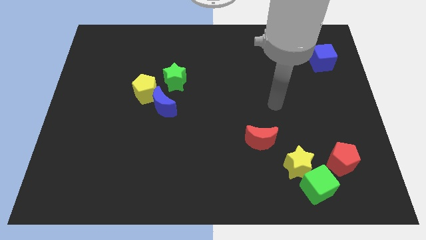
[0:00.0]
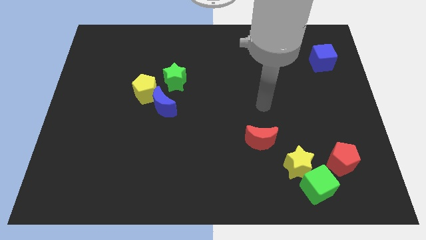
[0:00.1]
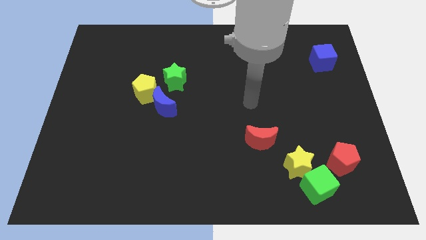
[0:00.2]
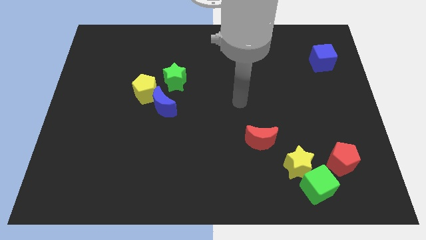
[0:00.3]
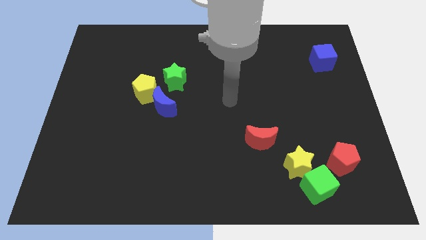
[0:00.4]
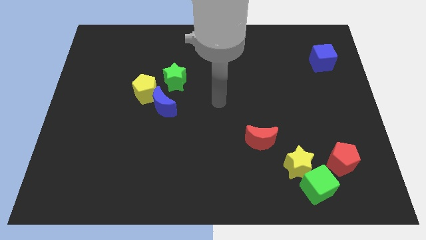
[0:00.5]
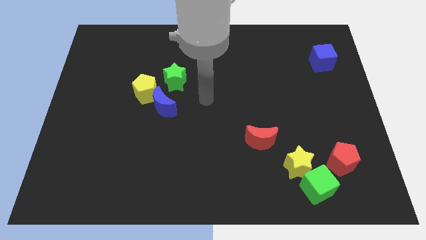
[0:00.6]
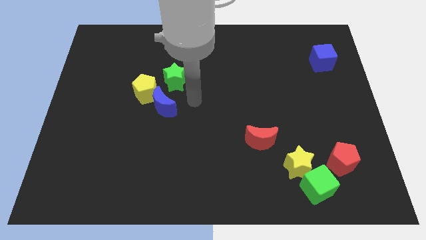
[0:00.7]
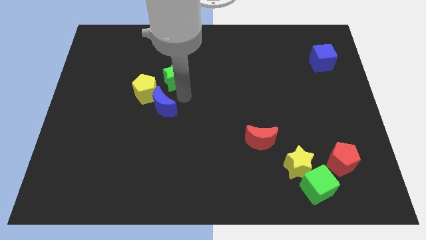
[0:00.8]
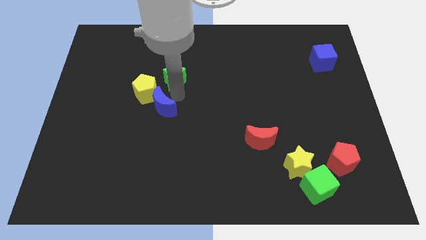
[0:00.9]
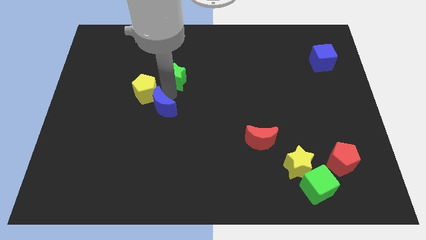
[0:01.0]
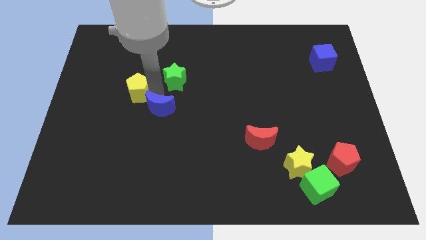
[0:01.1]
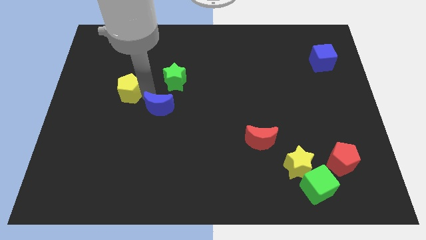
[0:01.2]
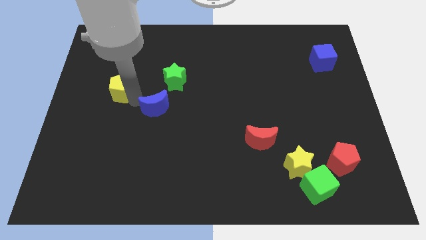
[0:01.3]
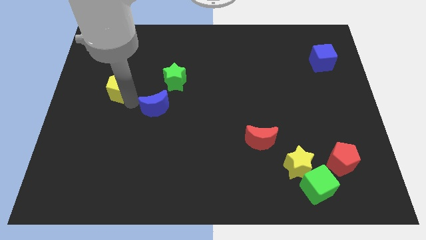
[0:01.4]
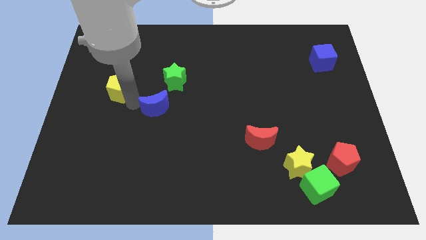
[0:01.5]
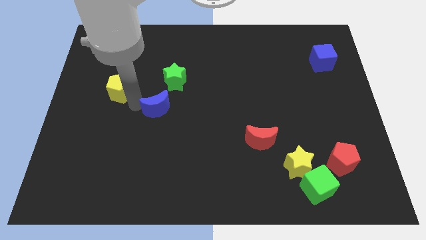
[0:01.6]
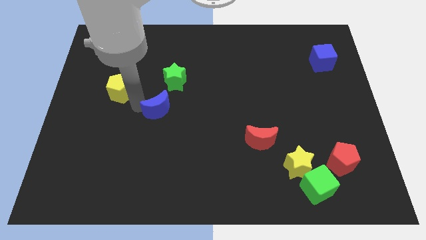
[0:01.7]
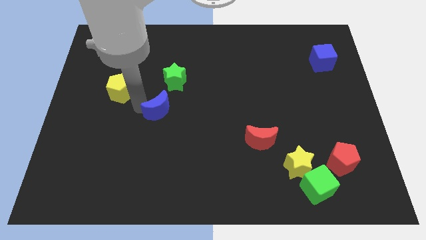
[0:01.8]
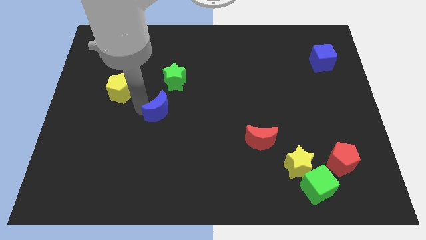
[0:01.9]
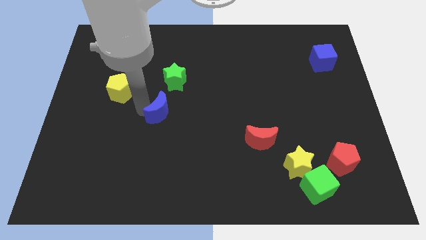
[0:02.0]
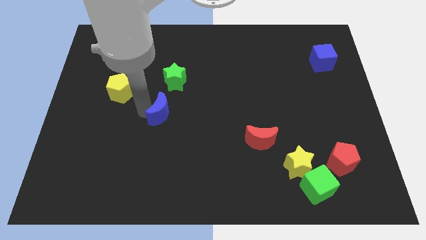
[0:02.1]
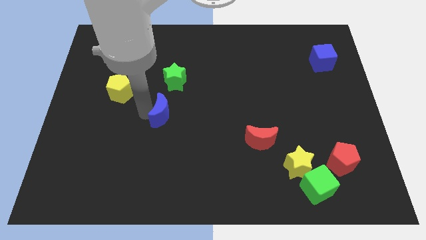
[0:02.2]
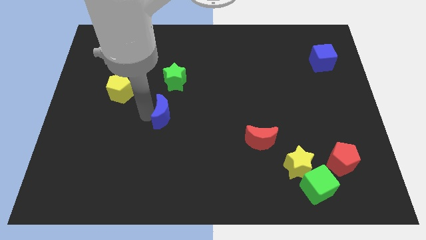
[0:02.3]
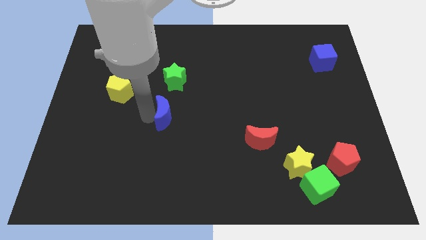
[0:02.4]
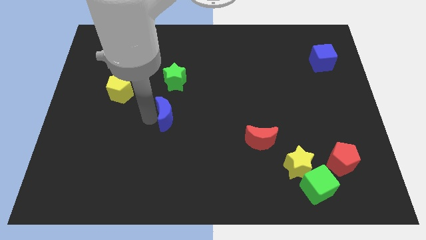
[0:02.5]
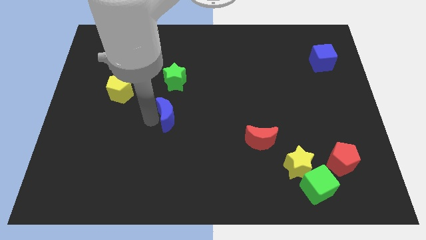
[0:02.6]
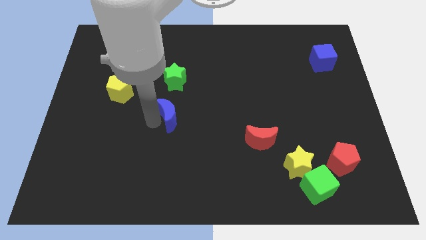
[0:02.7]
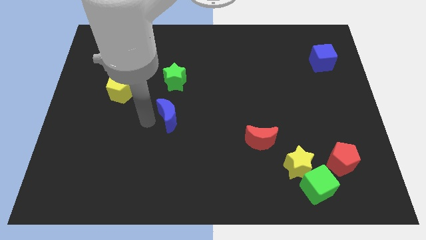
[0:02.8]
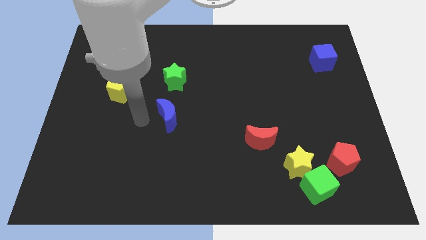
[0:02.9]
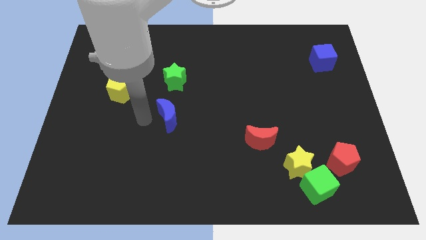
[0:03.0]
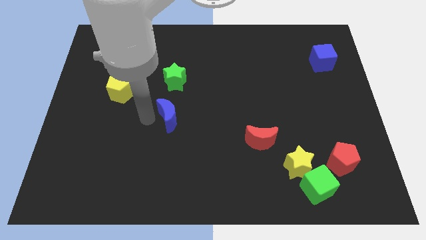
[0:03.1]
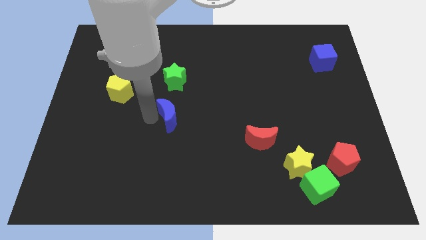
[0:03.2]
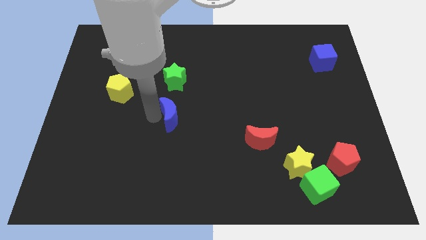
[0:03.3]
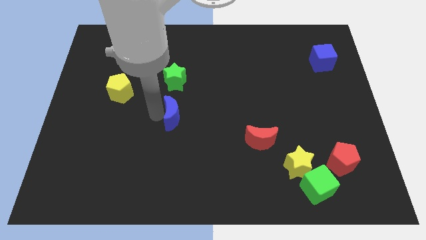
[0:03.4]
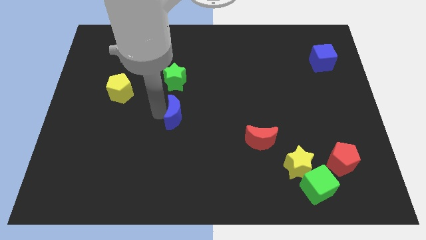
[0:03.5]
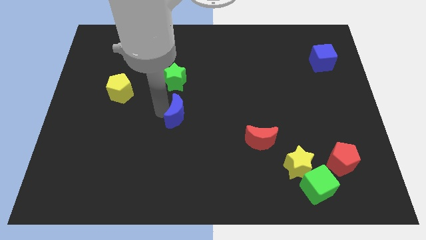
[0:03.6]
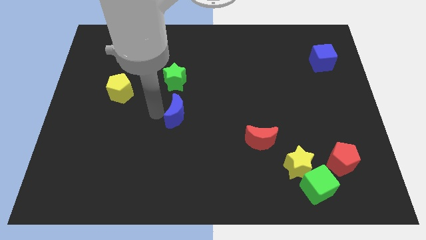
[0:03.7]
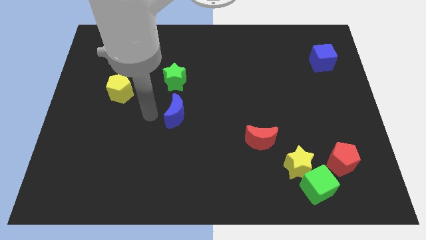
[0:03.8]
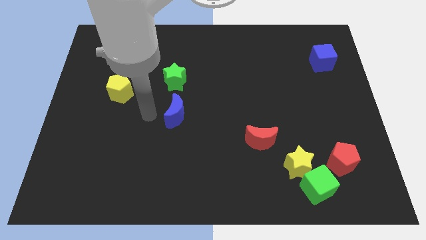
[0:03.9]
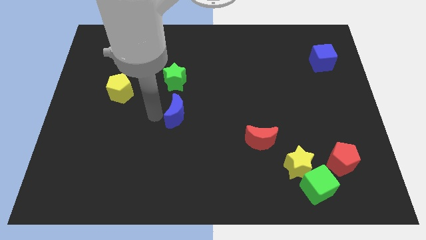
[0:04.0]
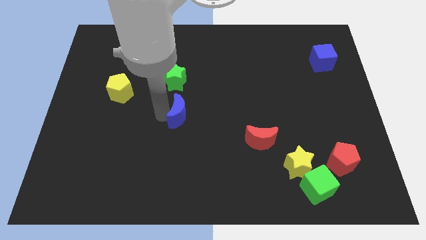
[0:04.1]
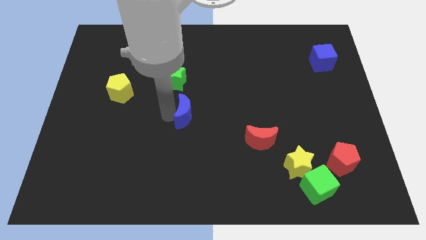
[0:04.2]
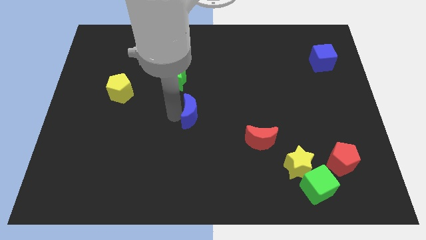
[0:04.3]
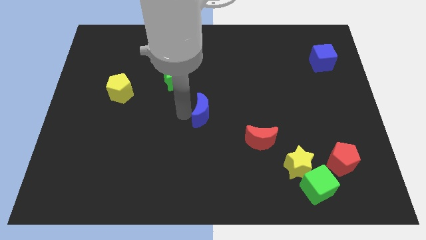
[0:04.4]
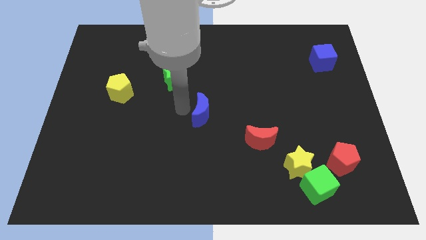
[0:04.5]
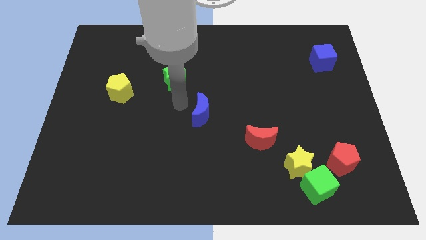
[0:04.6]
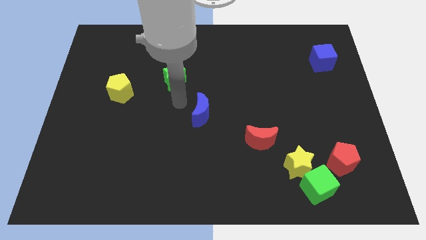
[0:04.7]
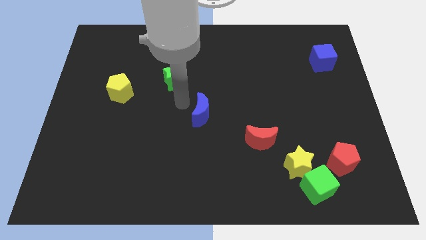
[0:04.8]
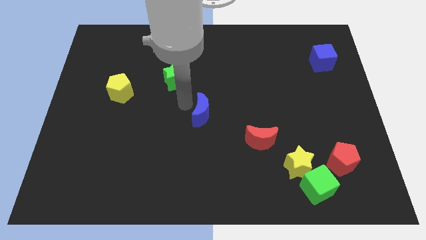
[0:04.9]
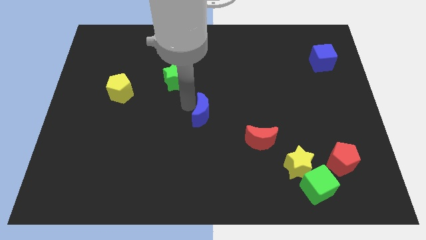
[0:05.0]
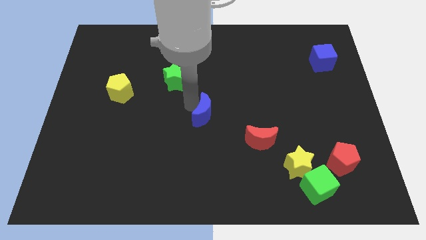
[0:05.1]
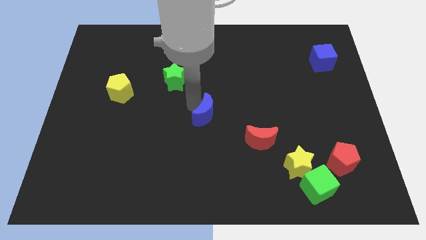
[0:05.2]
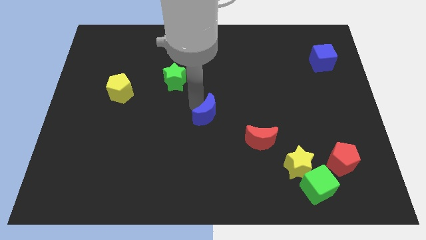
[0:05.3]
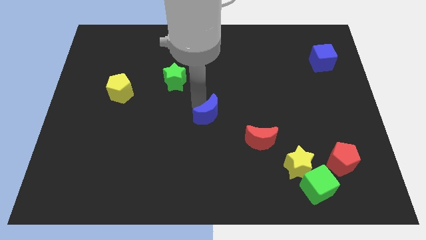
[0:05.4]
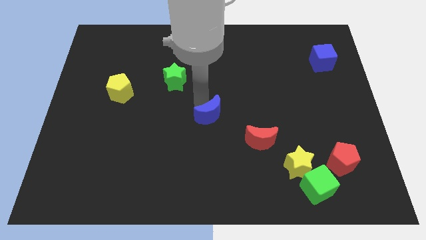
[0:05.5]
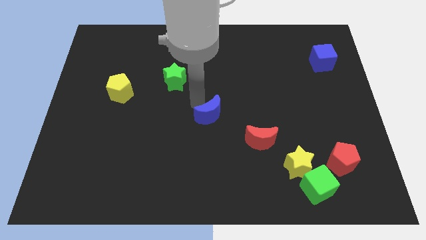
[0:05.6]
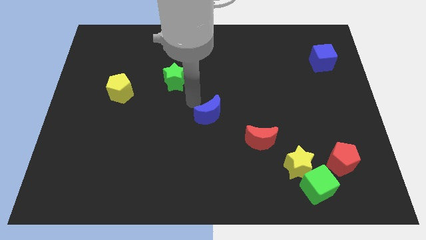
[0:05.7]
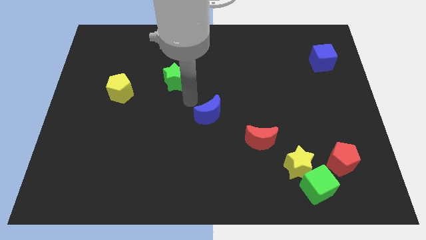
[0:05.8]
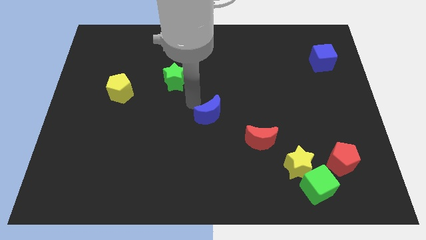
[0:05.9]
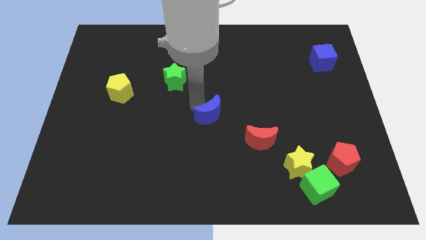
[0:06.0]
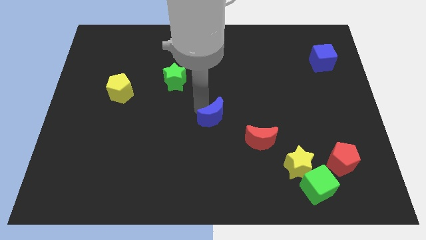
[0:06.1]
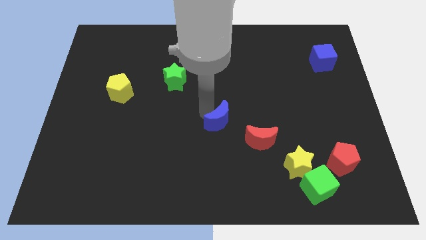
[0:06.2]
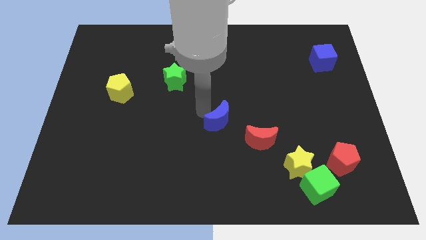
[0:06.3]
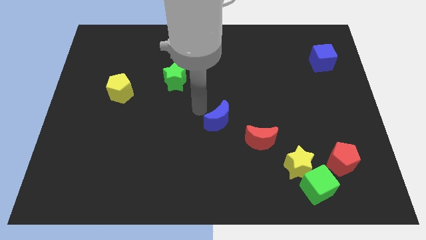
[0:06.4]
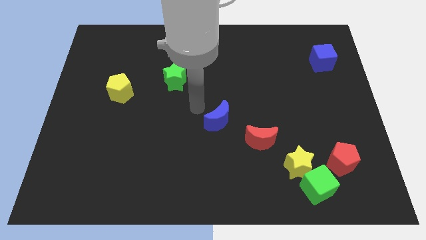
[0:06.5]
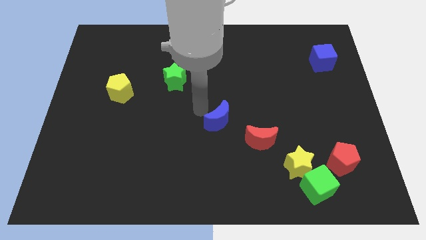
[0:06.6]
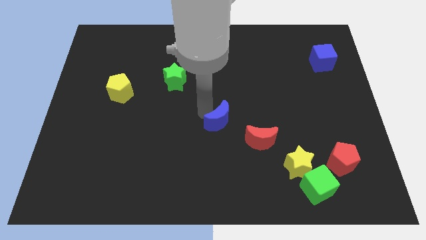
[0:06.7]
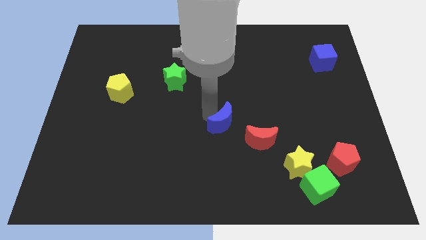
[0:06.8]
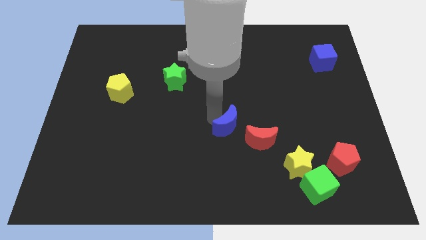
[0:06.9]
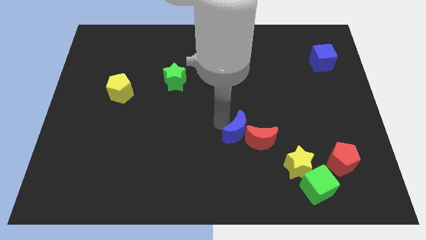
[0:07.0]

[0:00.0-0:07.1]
move the blue moon towards the red moon

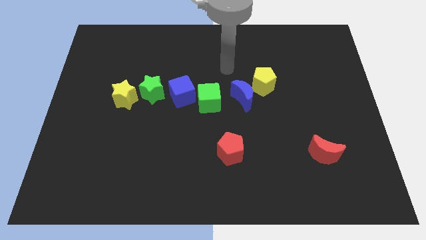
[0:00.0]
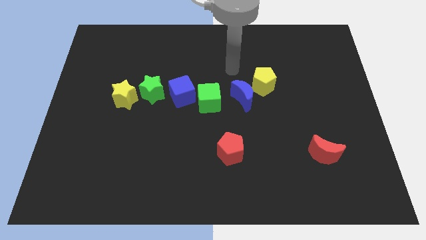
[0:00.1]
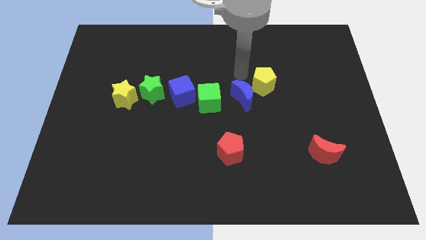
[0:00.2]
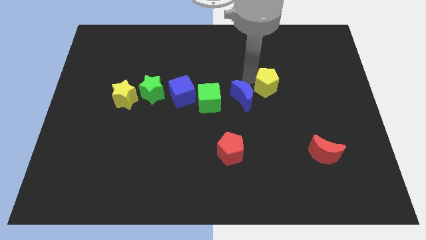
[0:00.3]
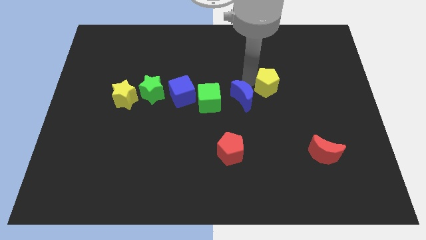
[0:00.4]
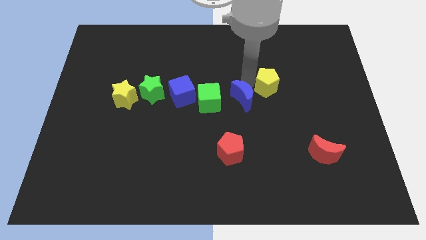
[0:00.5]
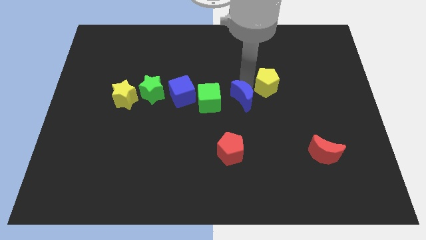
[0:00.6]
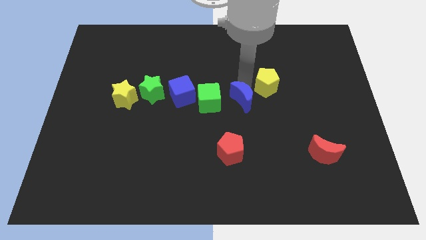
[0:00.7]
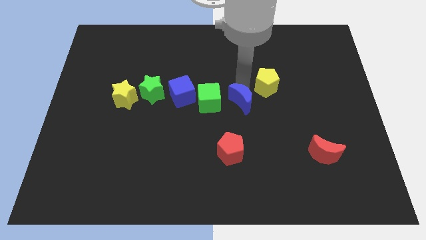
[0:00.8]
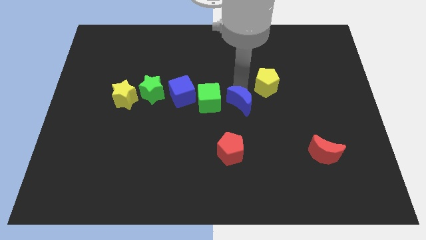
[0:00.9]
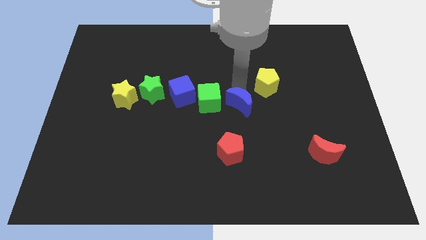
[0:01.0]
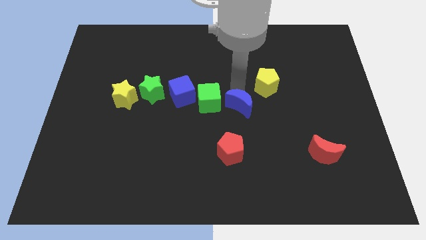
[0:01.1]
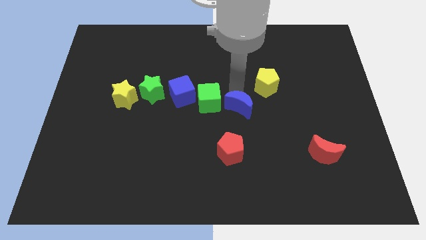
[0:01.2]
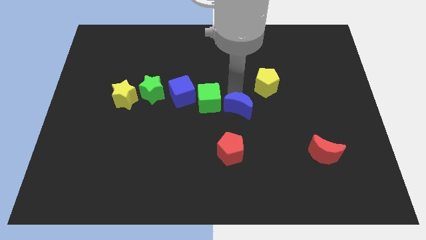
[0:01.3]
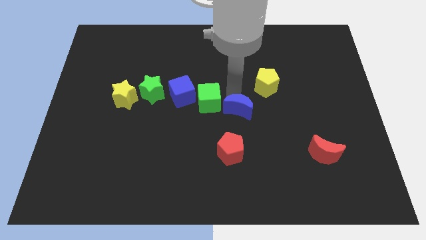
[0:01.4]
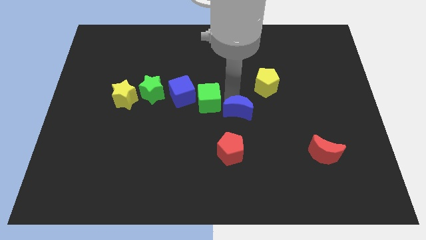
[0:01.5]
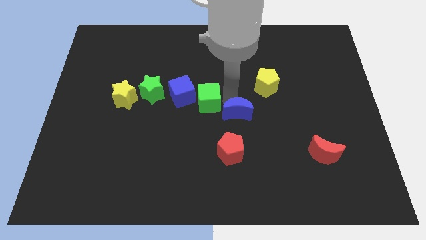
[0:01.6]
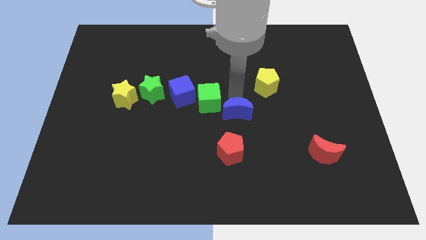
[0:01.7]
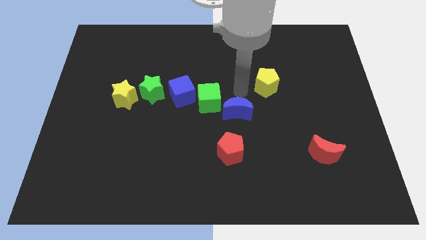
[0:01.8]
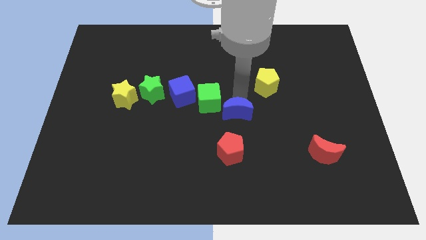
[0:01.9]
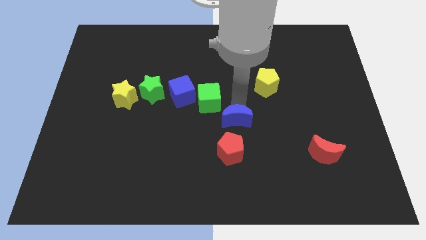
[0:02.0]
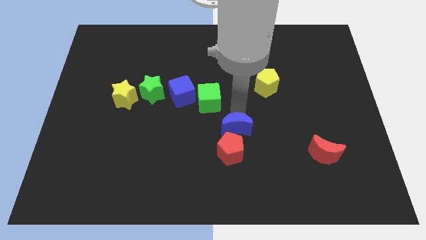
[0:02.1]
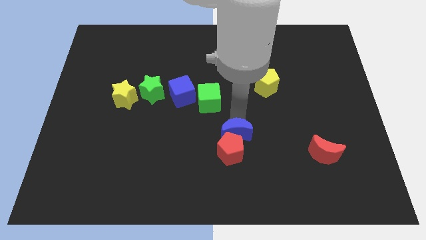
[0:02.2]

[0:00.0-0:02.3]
push the blue moon next to the red pentagon
